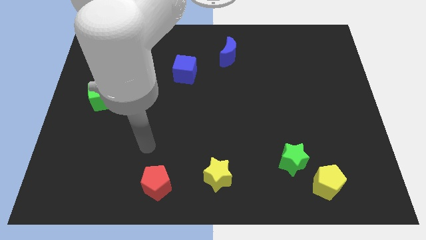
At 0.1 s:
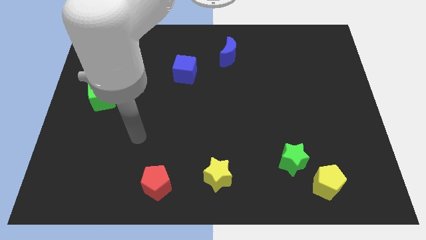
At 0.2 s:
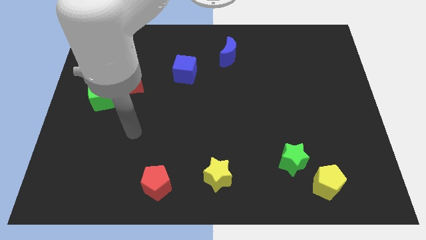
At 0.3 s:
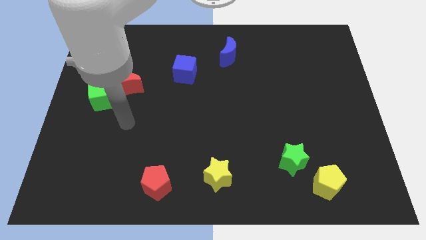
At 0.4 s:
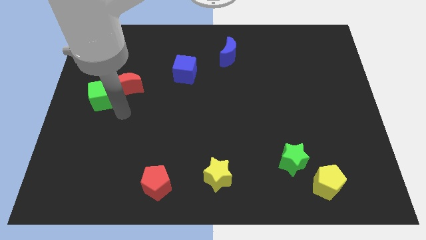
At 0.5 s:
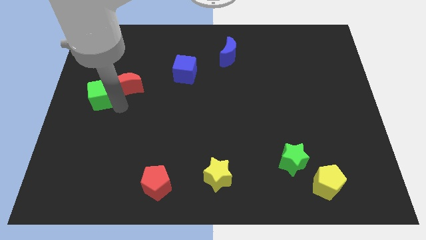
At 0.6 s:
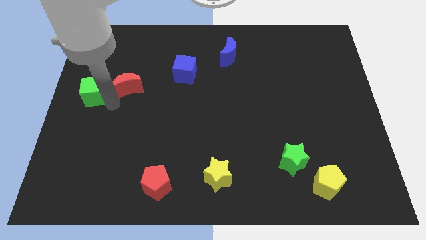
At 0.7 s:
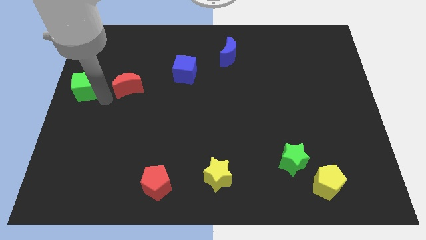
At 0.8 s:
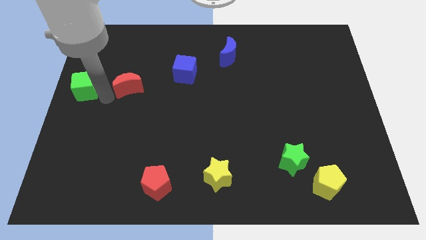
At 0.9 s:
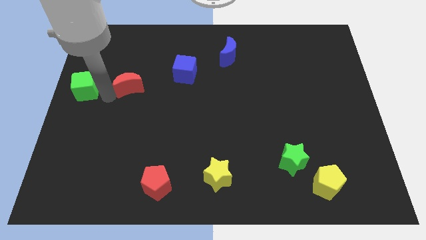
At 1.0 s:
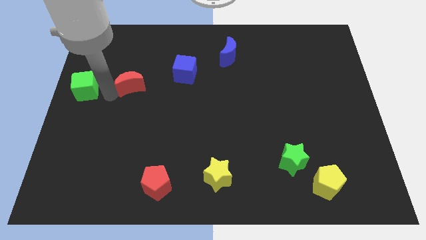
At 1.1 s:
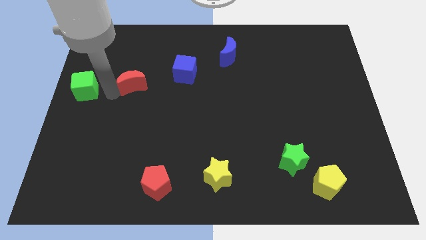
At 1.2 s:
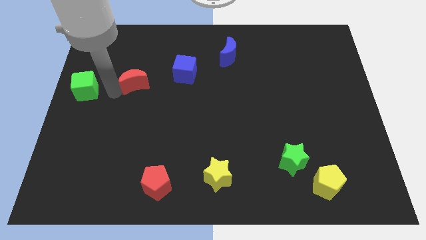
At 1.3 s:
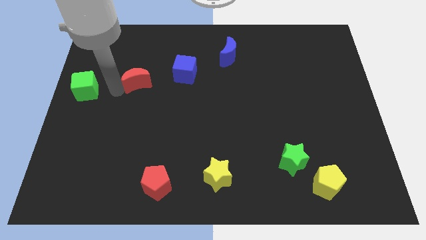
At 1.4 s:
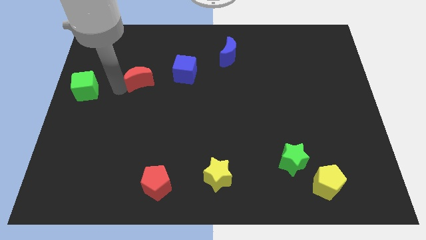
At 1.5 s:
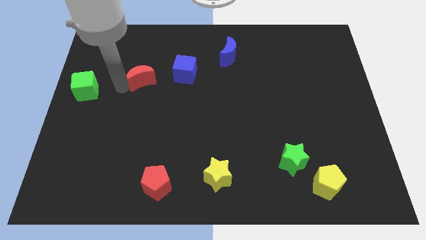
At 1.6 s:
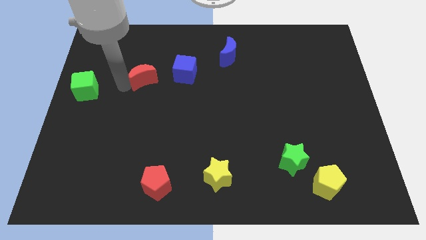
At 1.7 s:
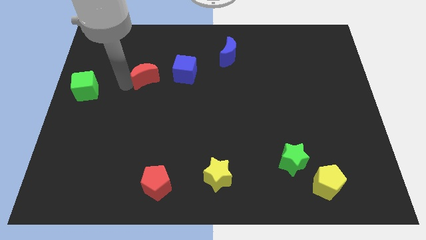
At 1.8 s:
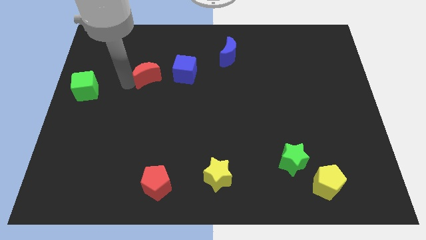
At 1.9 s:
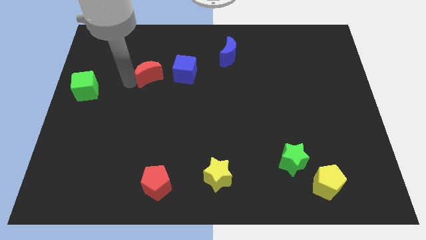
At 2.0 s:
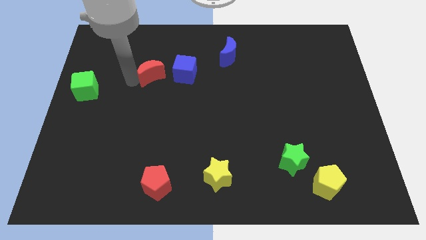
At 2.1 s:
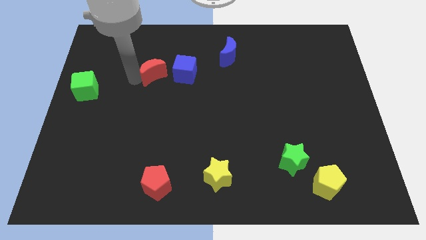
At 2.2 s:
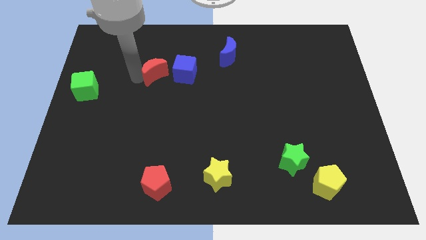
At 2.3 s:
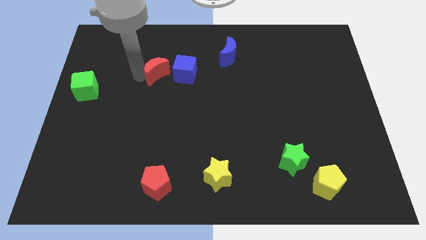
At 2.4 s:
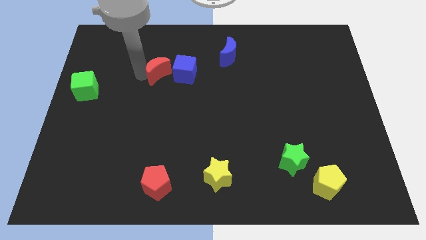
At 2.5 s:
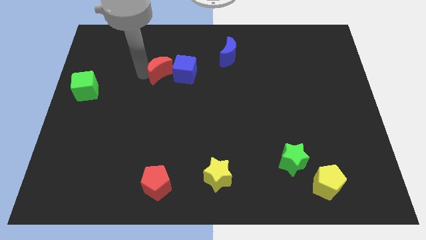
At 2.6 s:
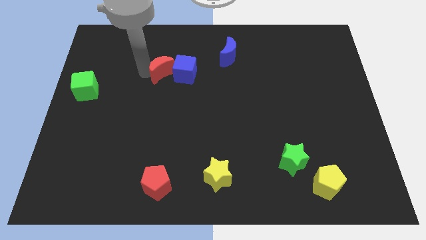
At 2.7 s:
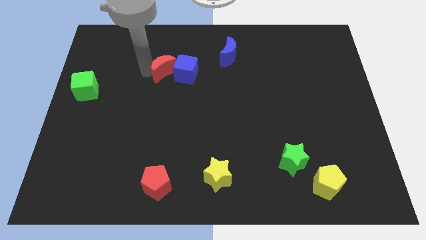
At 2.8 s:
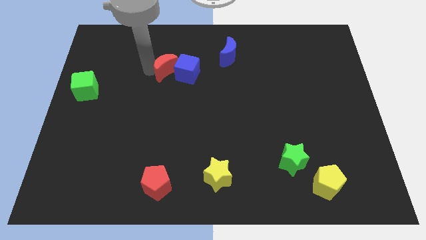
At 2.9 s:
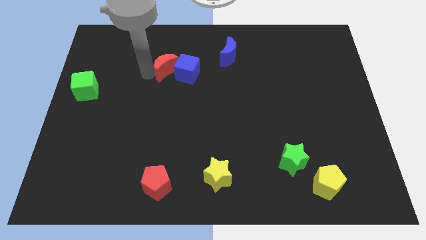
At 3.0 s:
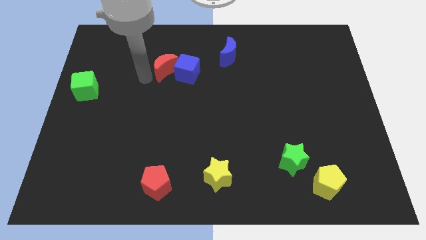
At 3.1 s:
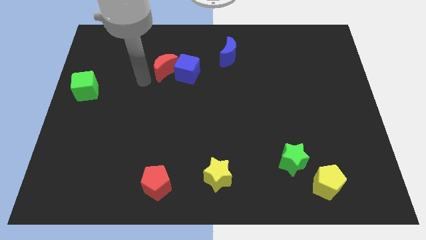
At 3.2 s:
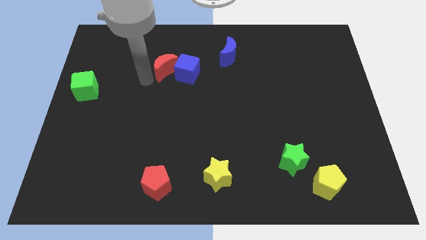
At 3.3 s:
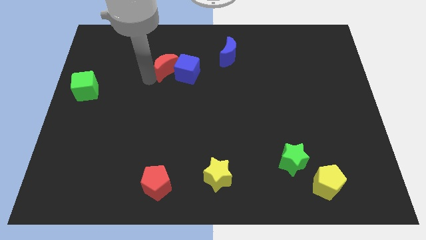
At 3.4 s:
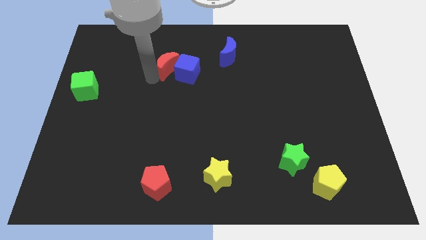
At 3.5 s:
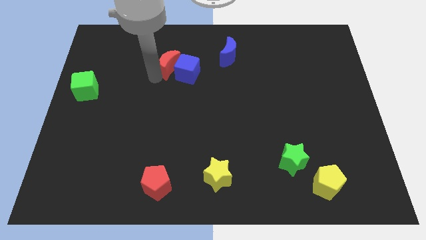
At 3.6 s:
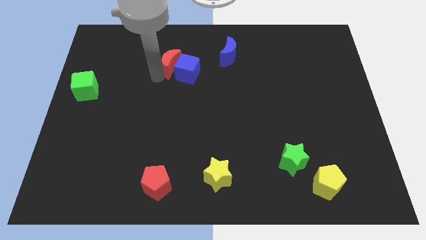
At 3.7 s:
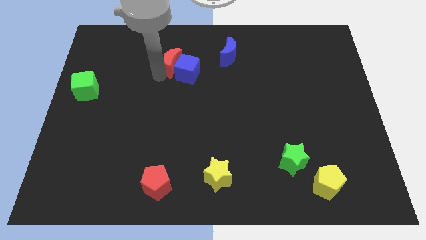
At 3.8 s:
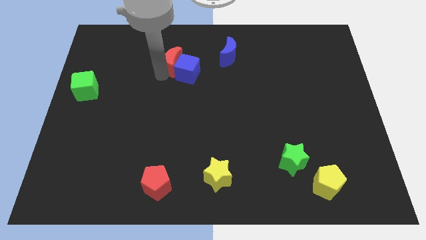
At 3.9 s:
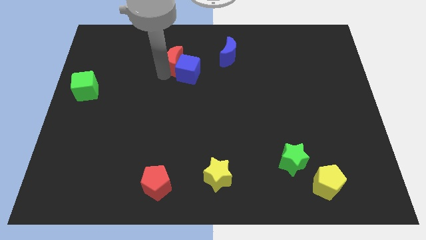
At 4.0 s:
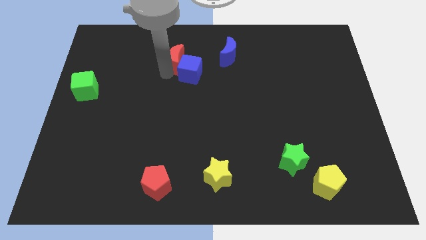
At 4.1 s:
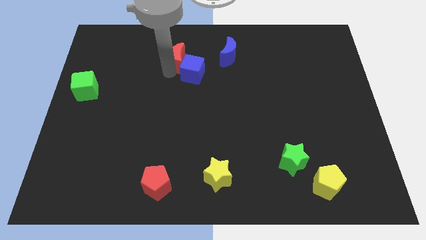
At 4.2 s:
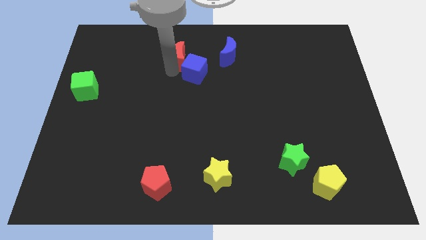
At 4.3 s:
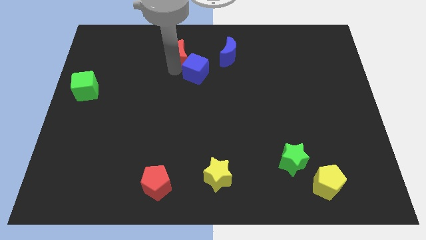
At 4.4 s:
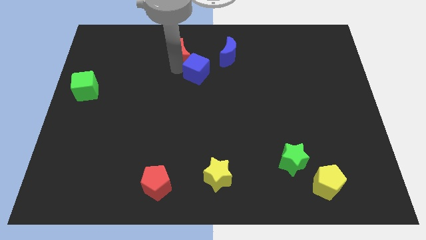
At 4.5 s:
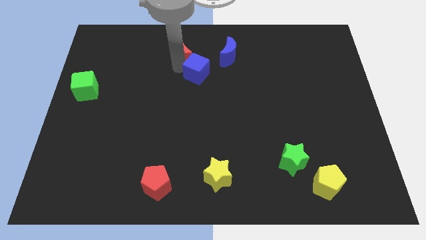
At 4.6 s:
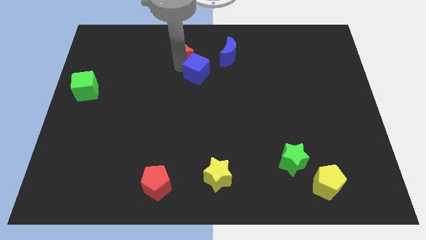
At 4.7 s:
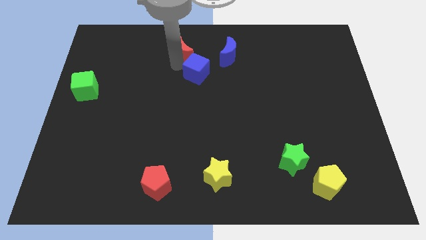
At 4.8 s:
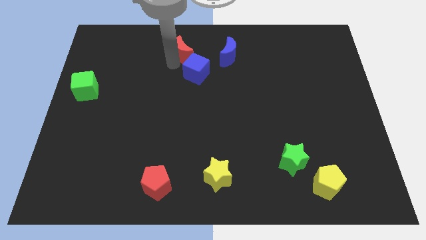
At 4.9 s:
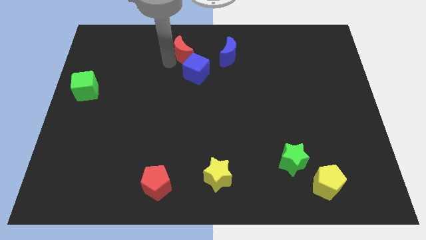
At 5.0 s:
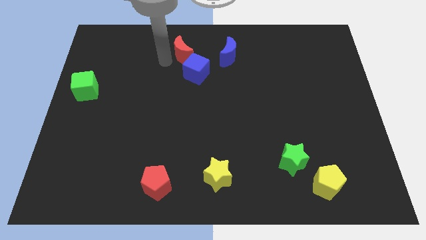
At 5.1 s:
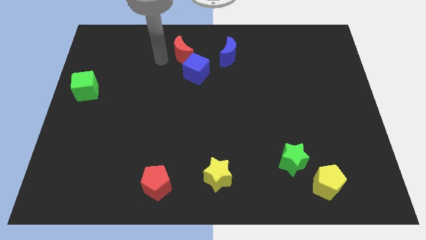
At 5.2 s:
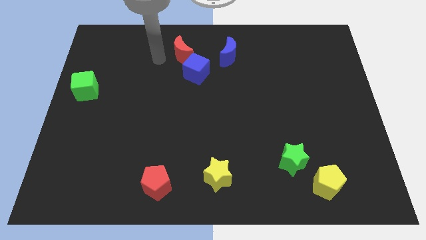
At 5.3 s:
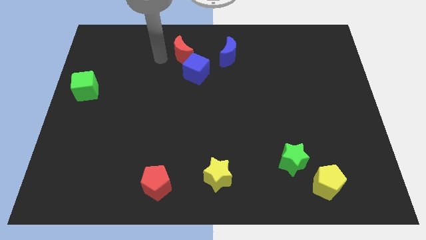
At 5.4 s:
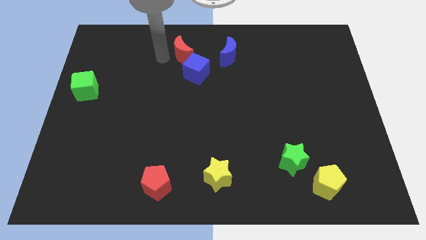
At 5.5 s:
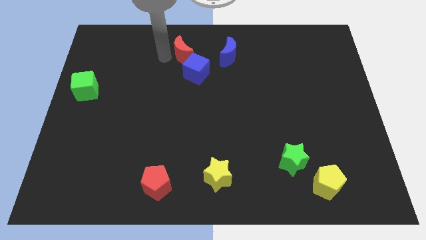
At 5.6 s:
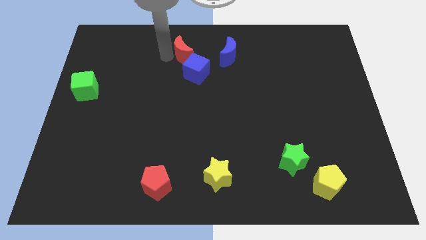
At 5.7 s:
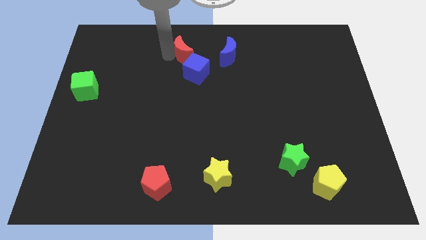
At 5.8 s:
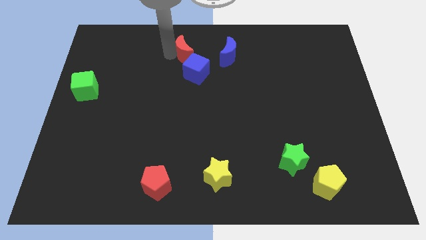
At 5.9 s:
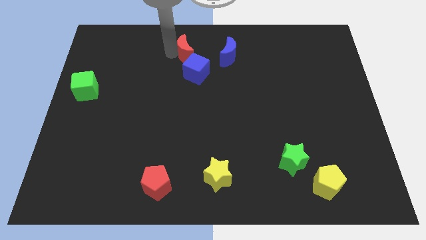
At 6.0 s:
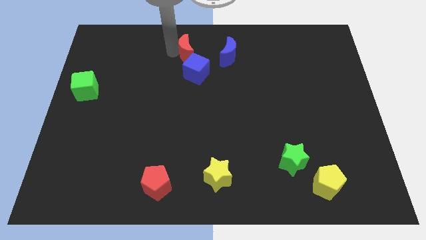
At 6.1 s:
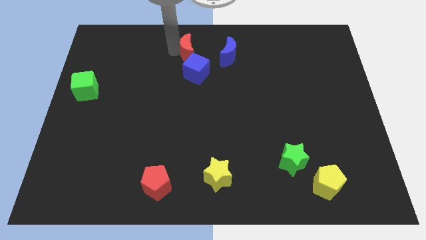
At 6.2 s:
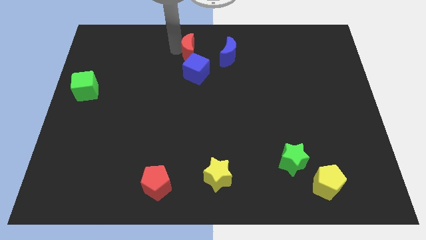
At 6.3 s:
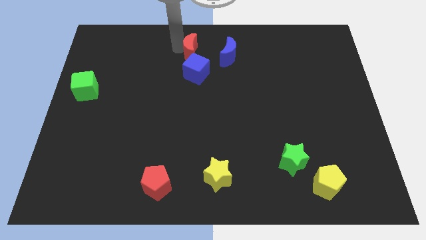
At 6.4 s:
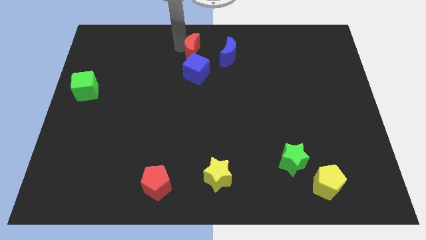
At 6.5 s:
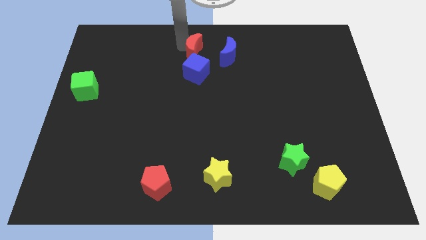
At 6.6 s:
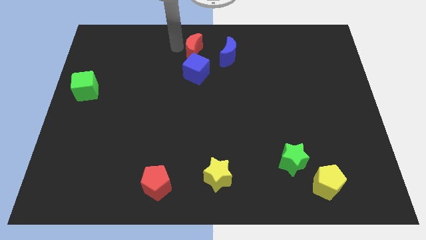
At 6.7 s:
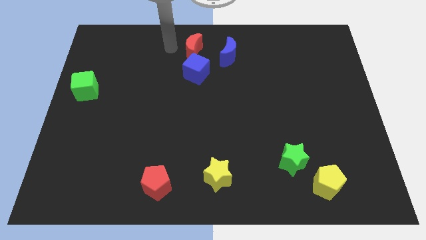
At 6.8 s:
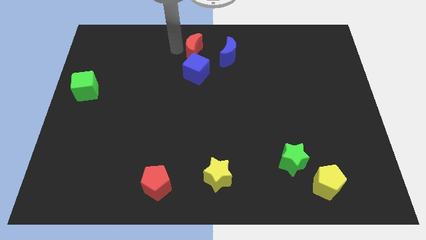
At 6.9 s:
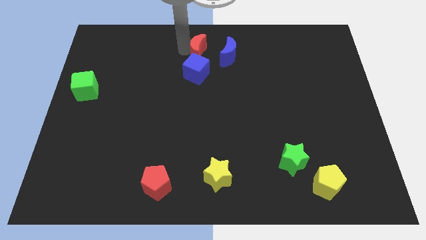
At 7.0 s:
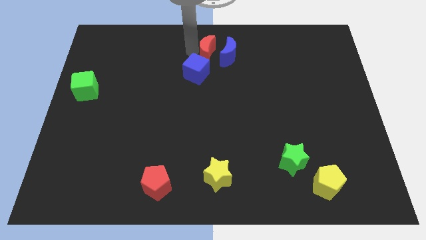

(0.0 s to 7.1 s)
put the red moon close to the blue moon
